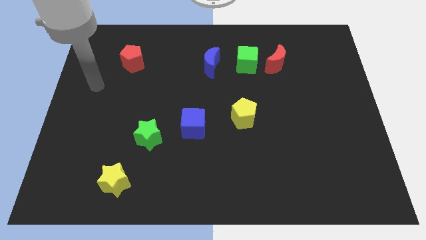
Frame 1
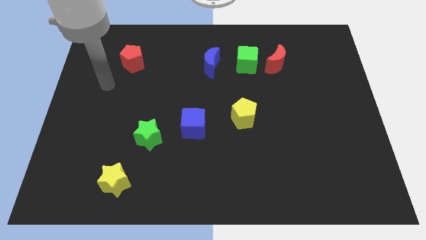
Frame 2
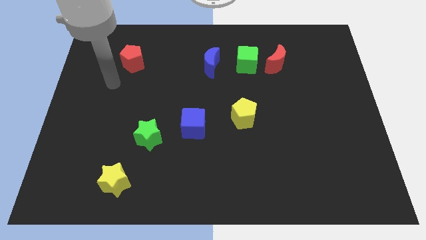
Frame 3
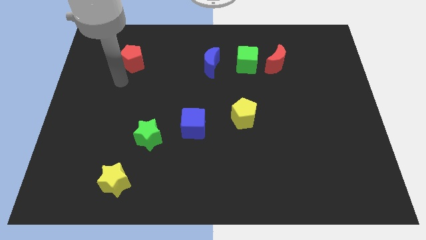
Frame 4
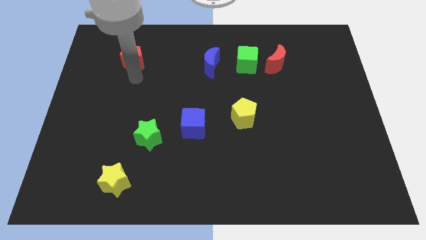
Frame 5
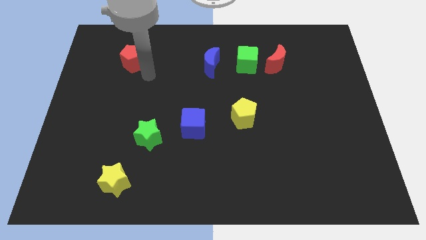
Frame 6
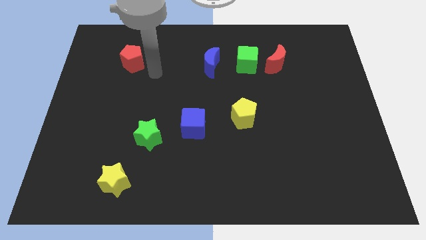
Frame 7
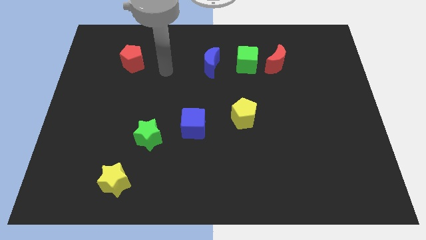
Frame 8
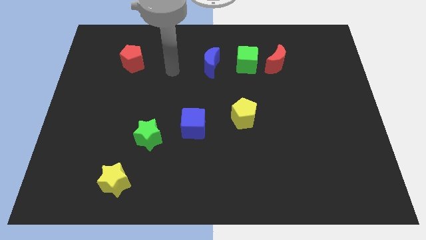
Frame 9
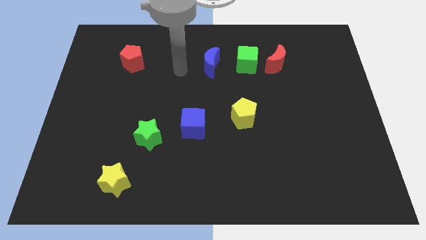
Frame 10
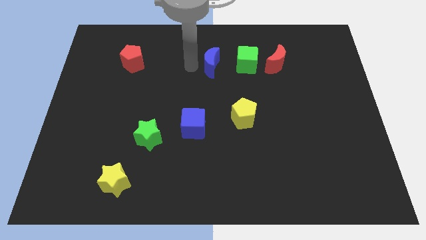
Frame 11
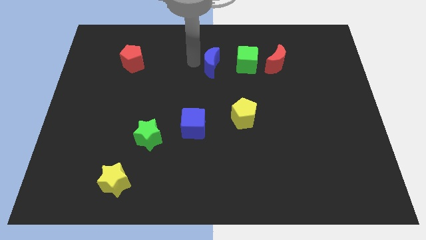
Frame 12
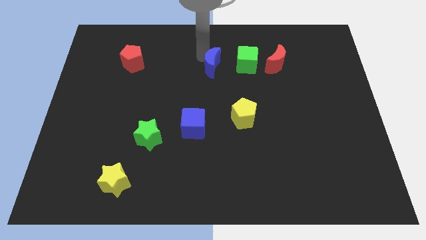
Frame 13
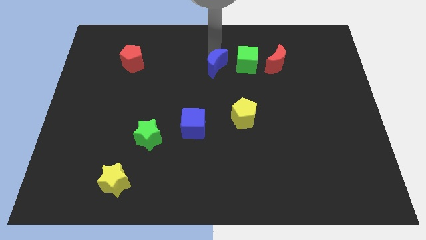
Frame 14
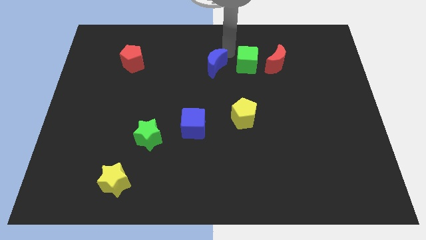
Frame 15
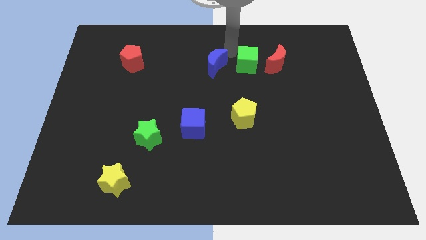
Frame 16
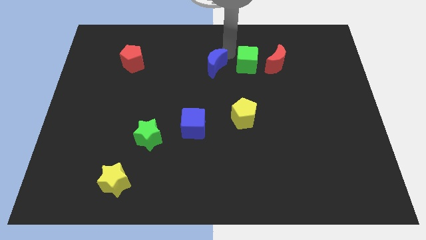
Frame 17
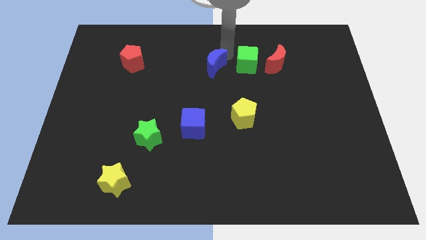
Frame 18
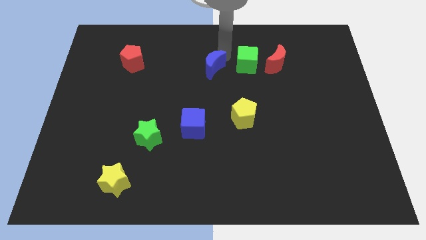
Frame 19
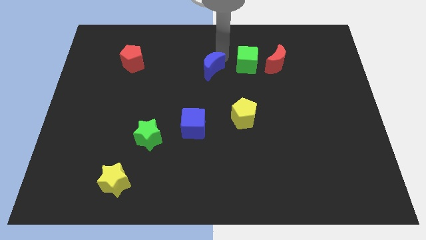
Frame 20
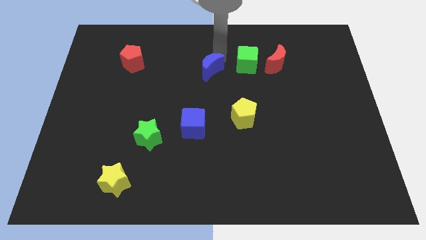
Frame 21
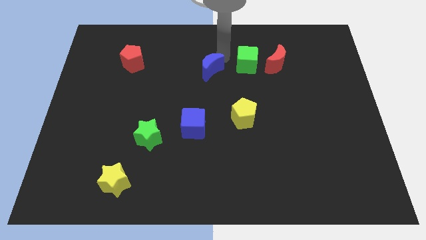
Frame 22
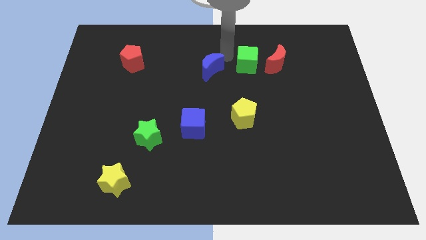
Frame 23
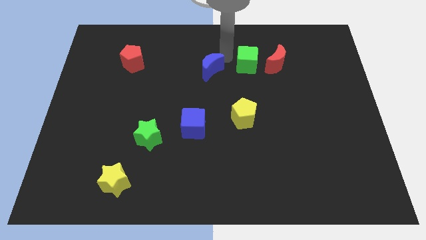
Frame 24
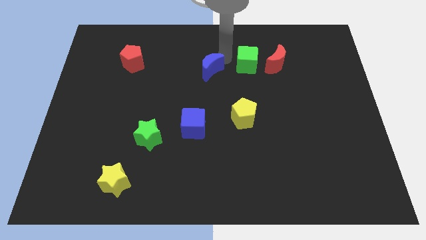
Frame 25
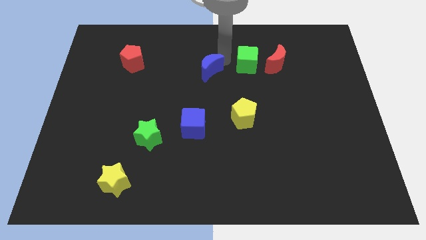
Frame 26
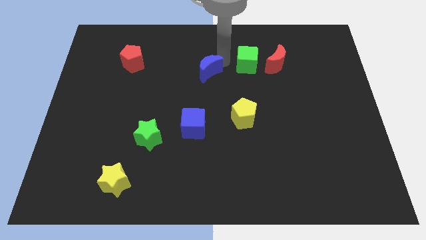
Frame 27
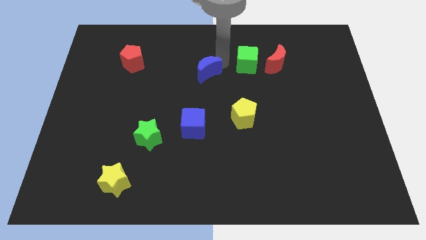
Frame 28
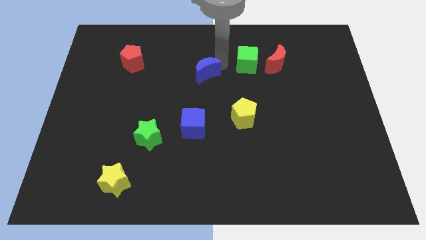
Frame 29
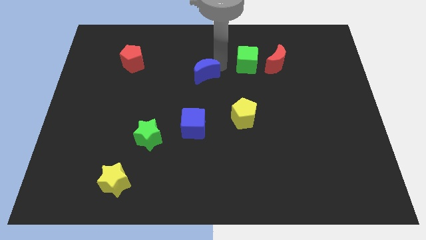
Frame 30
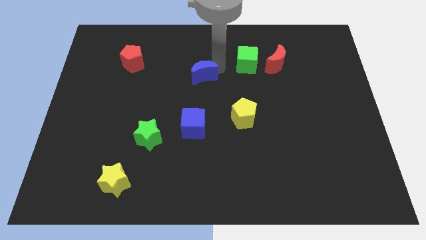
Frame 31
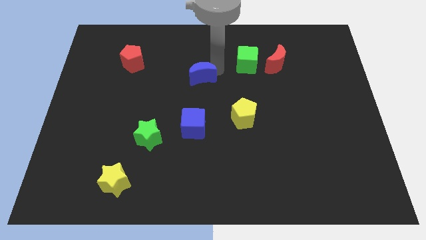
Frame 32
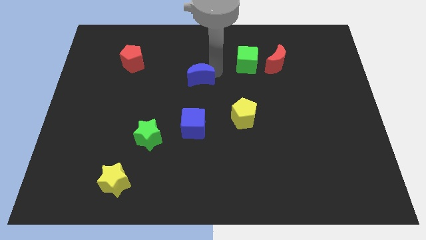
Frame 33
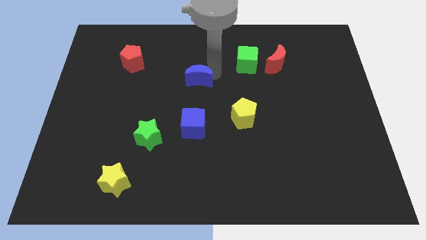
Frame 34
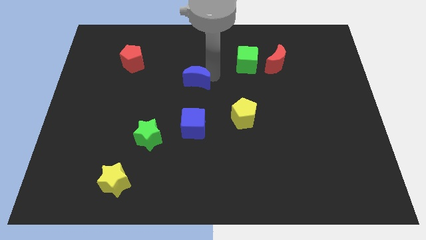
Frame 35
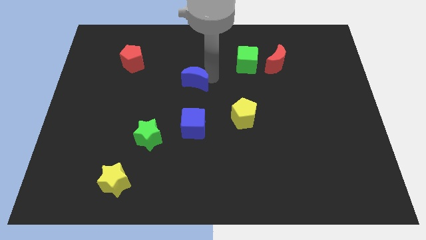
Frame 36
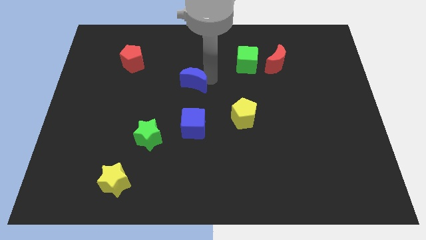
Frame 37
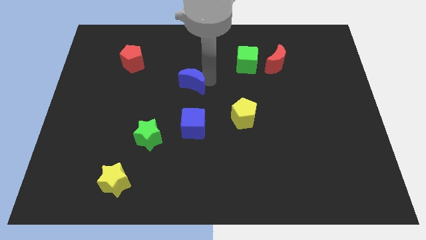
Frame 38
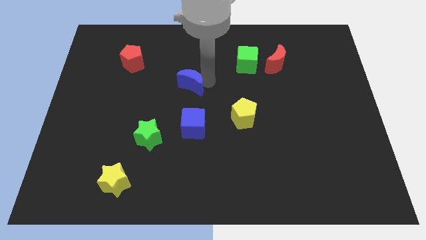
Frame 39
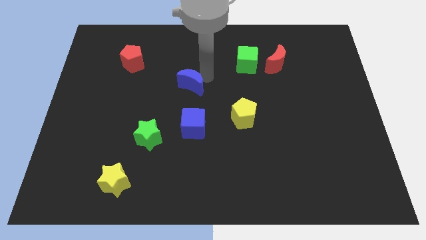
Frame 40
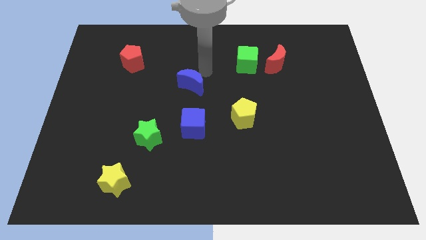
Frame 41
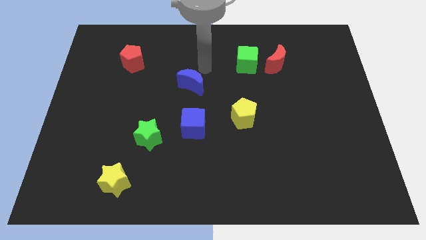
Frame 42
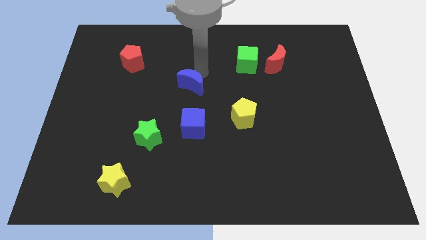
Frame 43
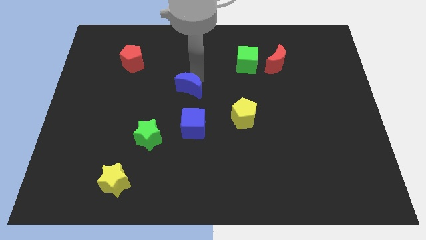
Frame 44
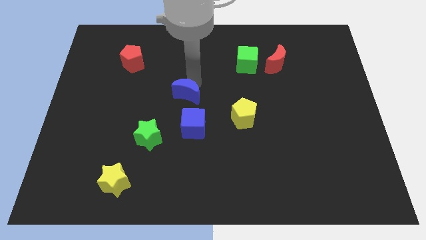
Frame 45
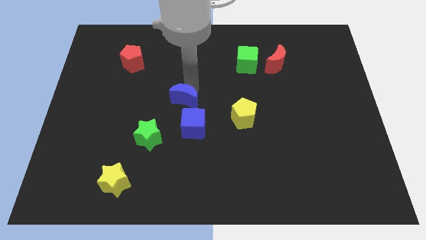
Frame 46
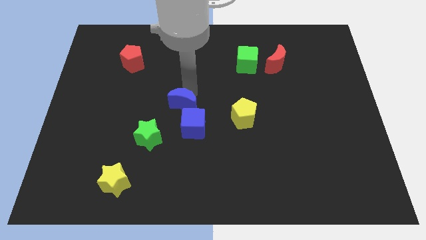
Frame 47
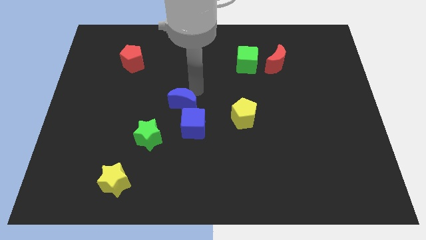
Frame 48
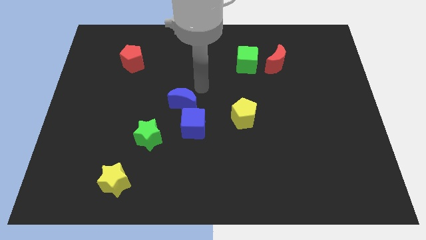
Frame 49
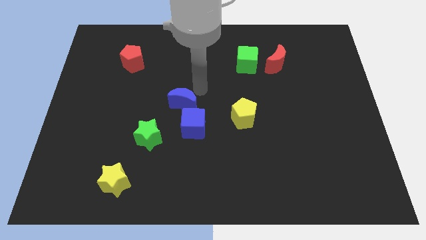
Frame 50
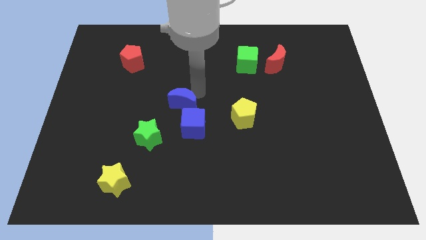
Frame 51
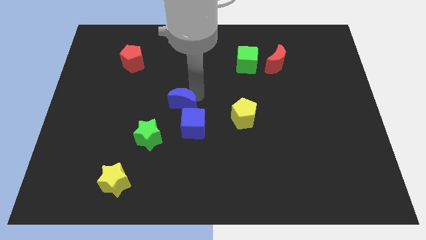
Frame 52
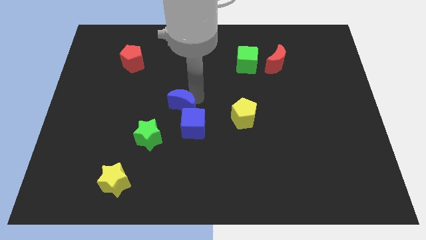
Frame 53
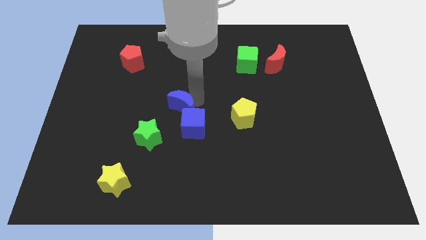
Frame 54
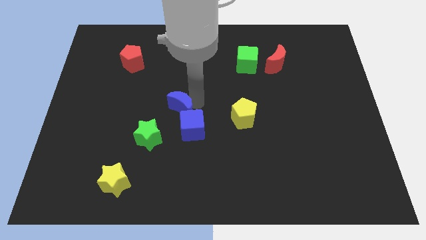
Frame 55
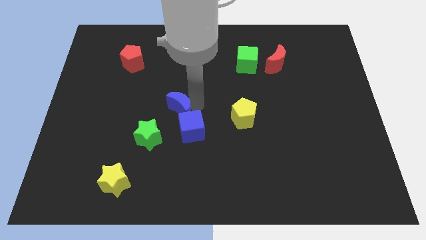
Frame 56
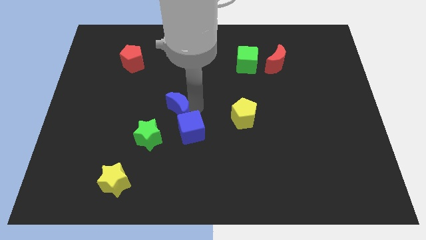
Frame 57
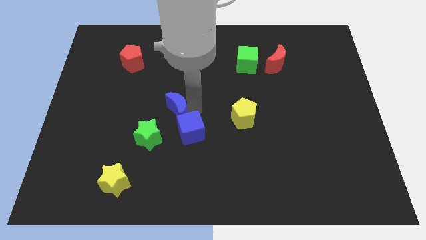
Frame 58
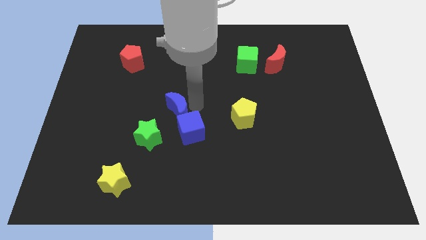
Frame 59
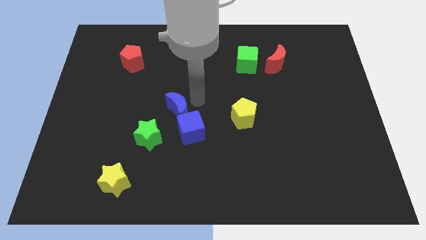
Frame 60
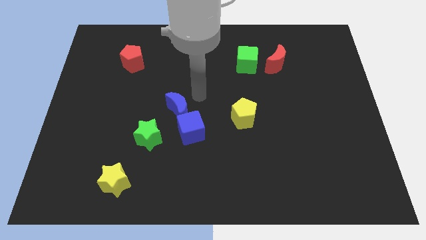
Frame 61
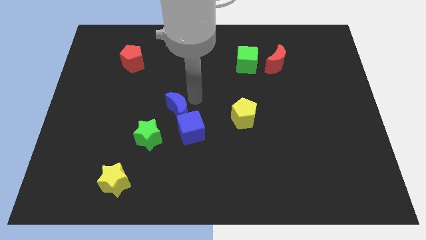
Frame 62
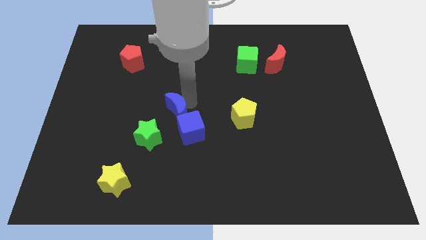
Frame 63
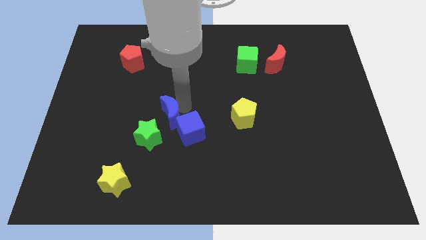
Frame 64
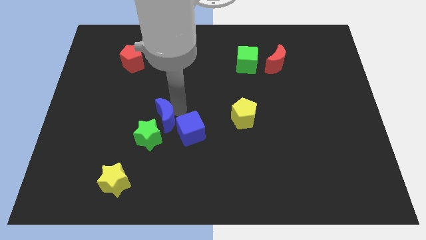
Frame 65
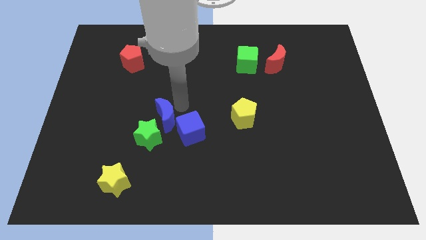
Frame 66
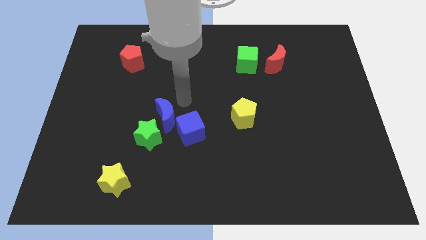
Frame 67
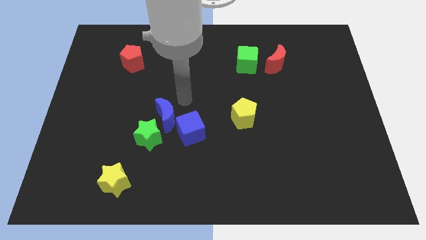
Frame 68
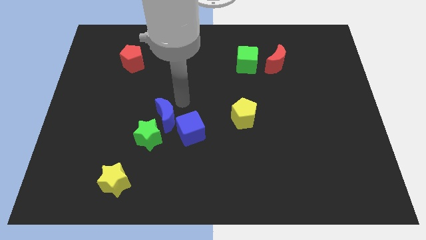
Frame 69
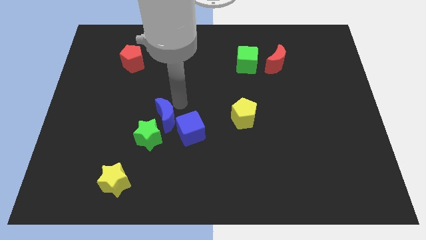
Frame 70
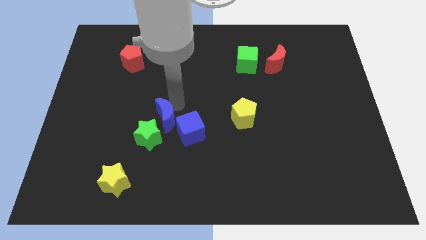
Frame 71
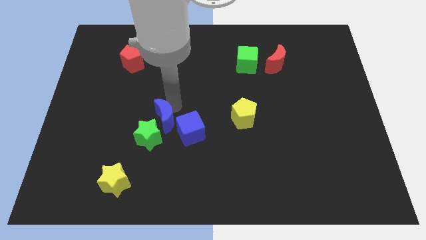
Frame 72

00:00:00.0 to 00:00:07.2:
push the blue moon close to the green star
